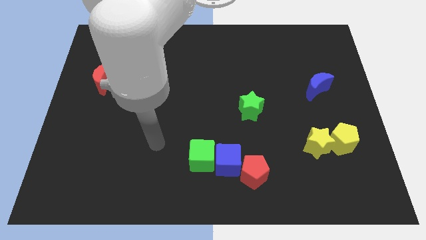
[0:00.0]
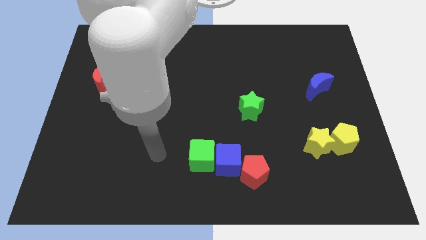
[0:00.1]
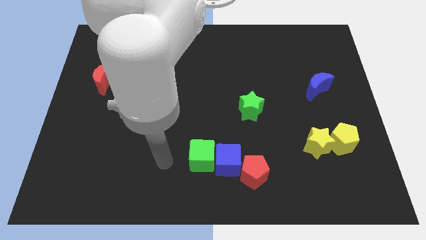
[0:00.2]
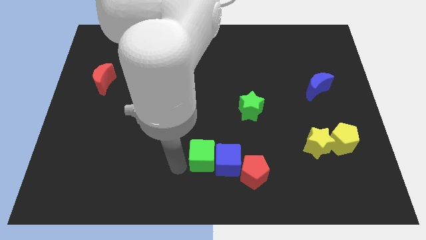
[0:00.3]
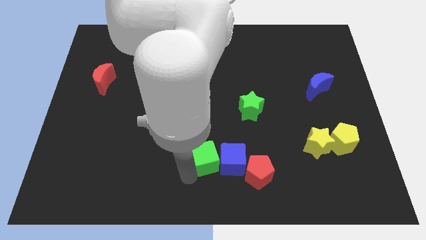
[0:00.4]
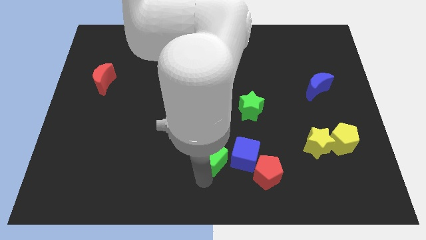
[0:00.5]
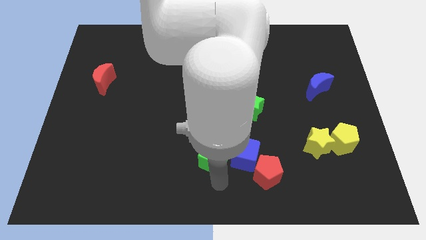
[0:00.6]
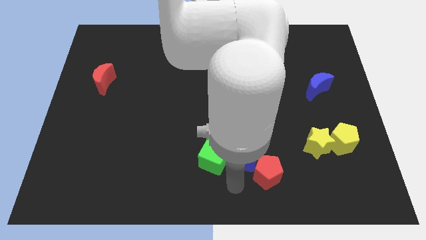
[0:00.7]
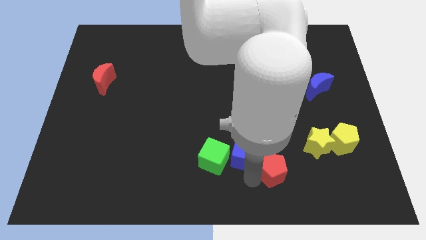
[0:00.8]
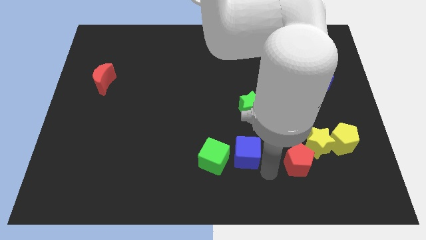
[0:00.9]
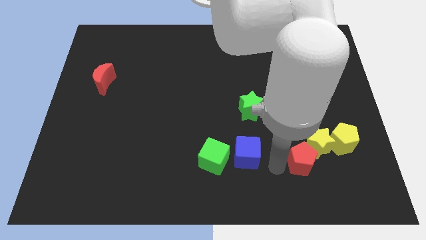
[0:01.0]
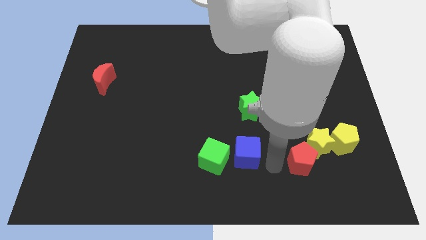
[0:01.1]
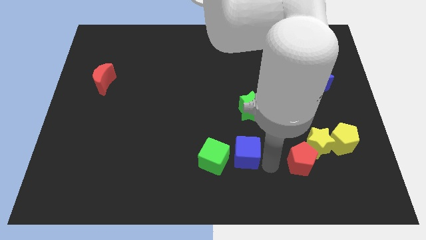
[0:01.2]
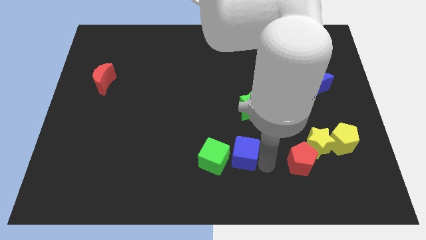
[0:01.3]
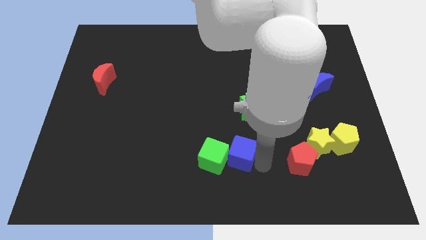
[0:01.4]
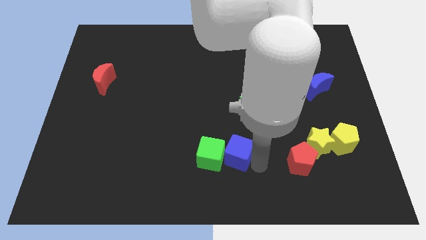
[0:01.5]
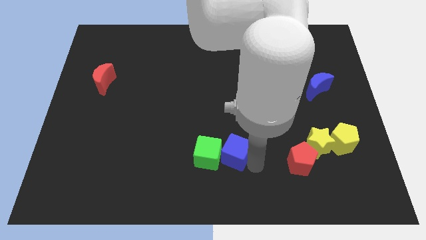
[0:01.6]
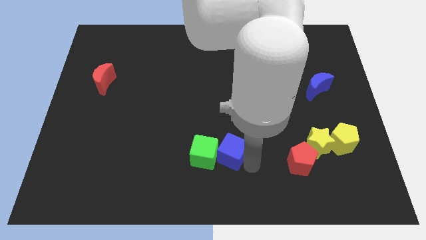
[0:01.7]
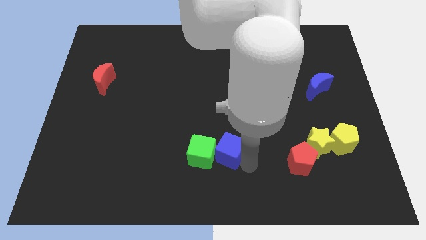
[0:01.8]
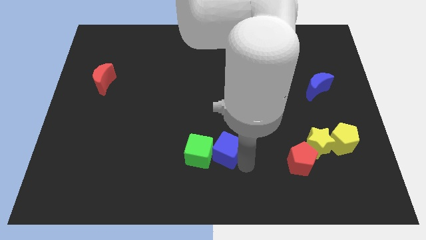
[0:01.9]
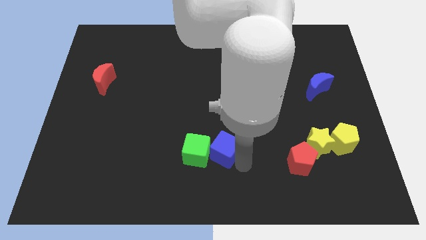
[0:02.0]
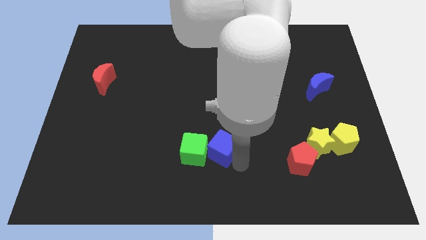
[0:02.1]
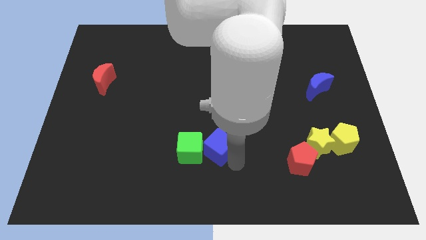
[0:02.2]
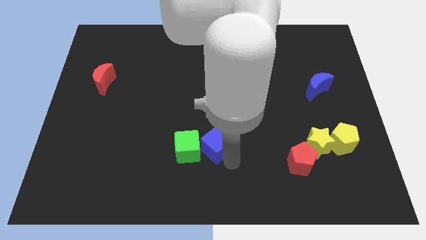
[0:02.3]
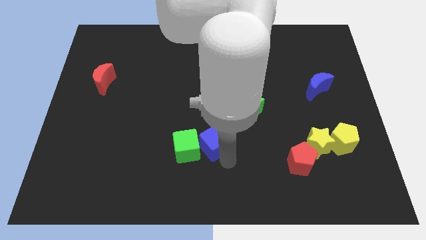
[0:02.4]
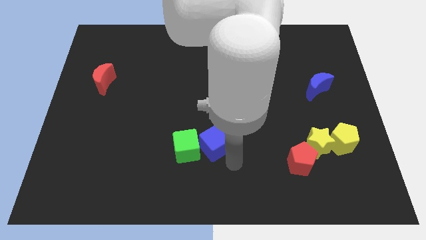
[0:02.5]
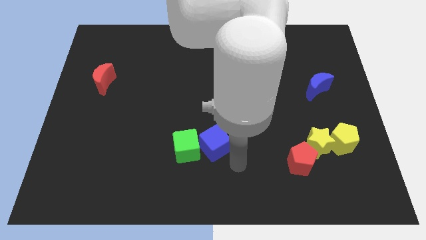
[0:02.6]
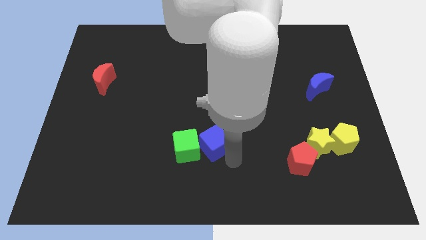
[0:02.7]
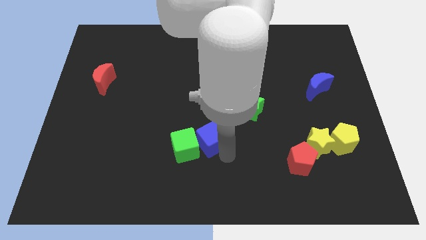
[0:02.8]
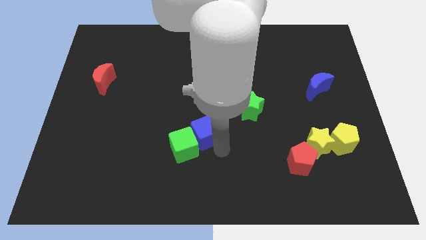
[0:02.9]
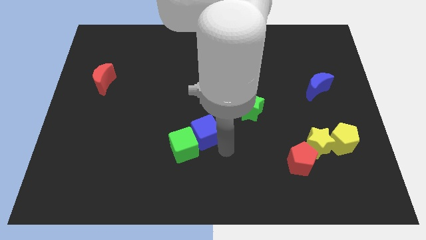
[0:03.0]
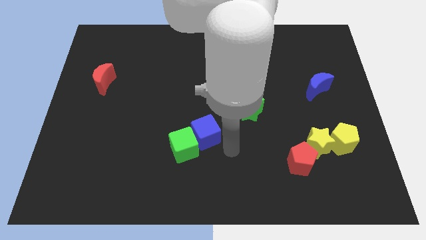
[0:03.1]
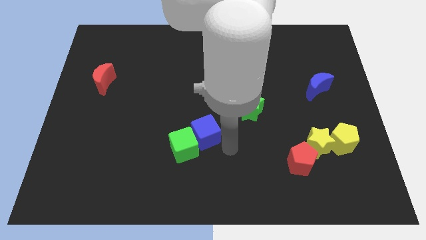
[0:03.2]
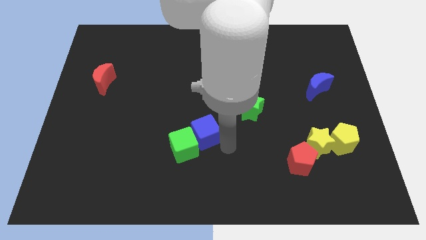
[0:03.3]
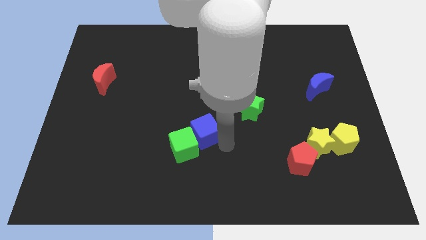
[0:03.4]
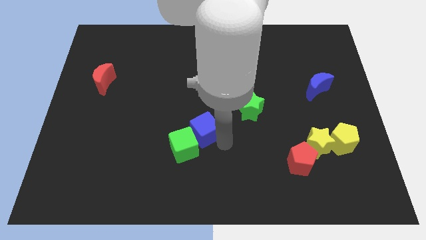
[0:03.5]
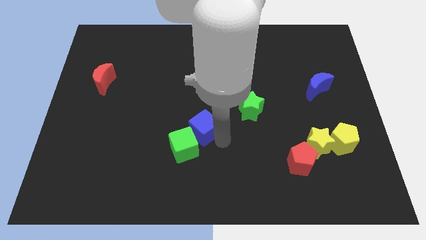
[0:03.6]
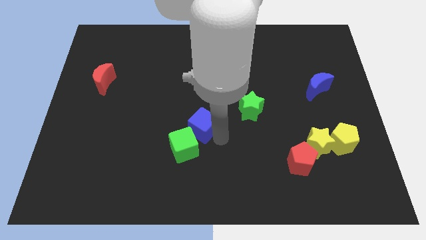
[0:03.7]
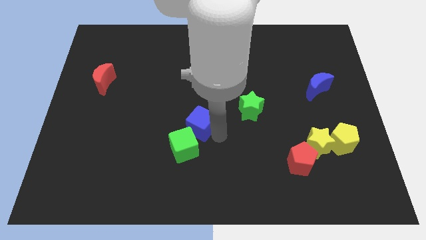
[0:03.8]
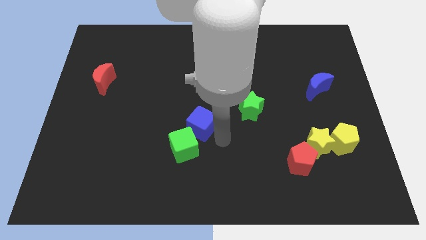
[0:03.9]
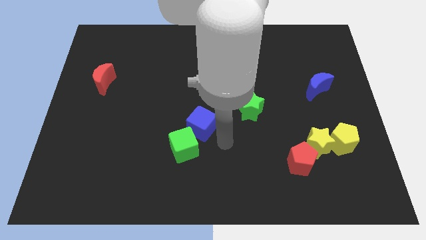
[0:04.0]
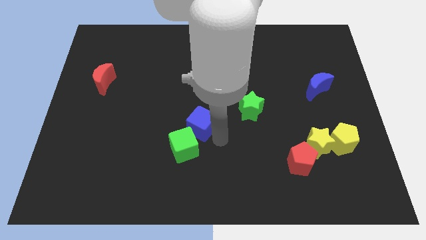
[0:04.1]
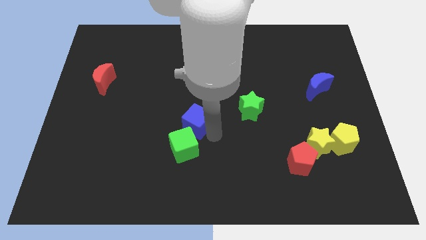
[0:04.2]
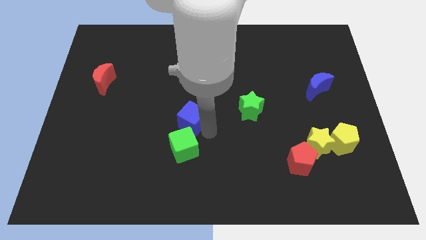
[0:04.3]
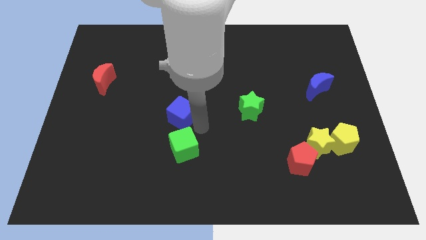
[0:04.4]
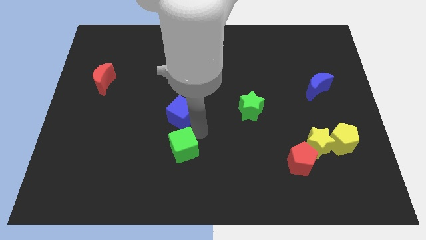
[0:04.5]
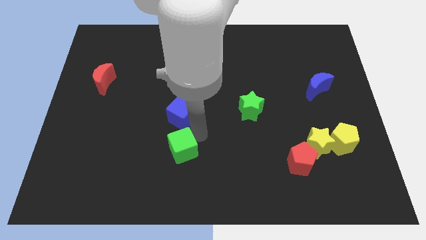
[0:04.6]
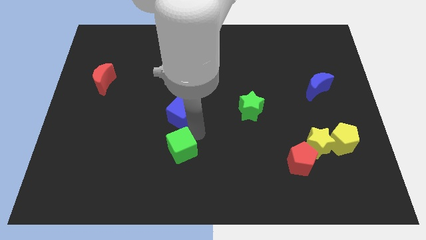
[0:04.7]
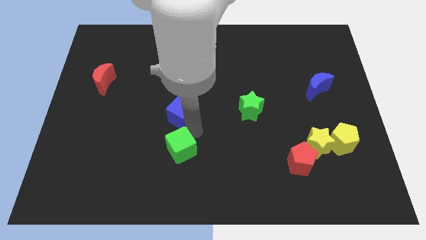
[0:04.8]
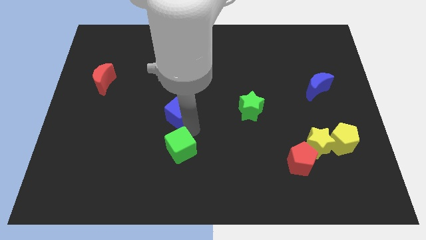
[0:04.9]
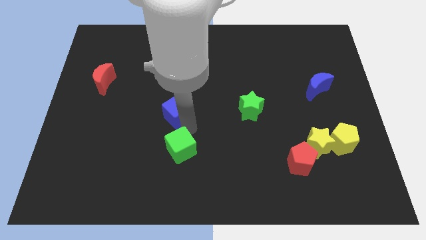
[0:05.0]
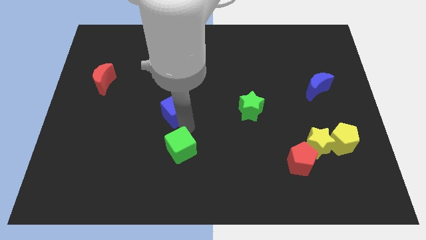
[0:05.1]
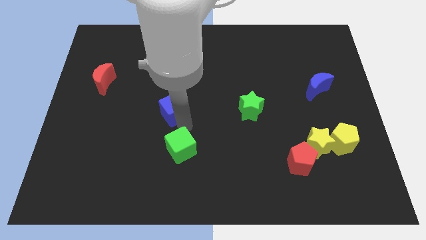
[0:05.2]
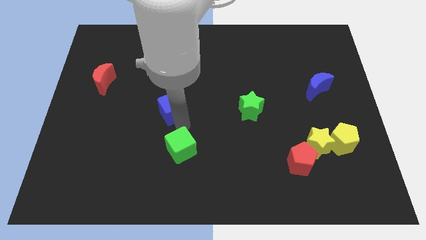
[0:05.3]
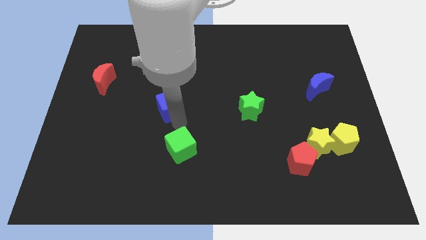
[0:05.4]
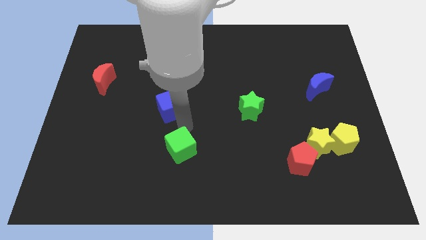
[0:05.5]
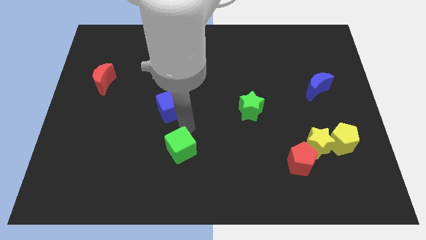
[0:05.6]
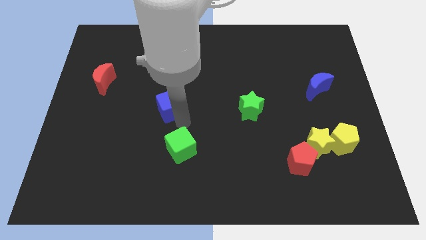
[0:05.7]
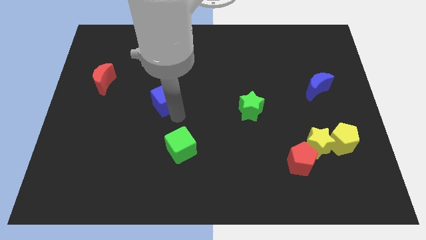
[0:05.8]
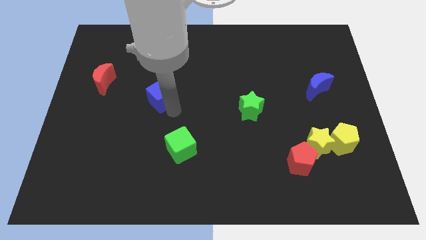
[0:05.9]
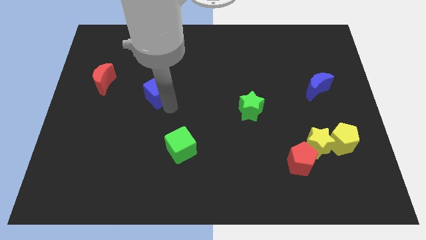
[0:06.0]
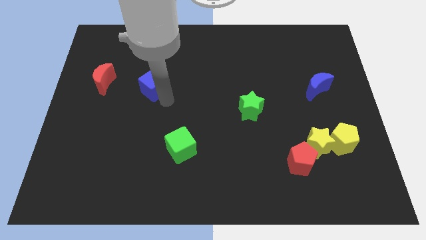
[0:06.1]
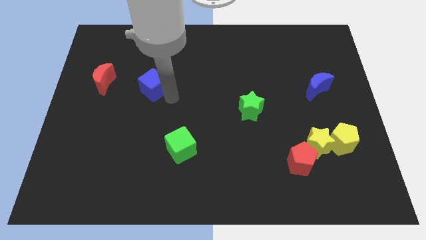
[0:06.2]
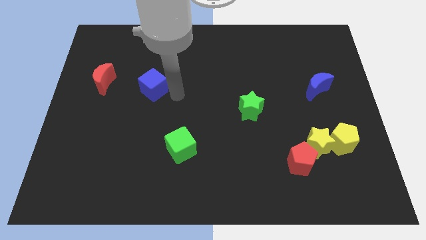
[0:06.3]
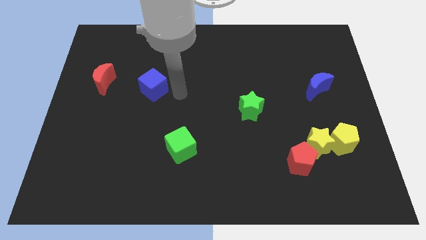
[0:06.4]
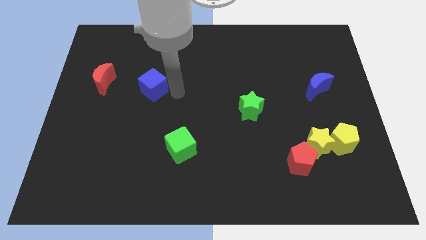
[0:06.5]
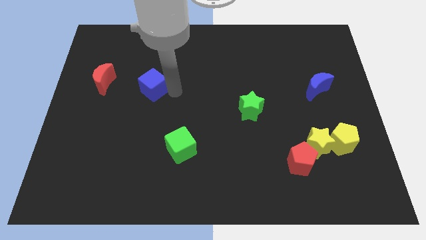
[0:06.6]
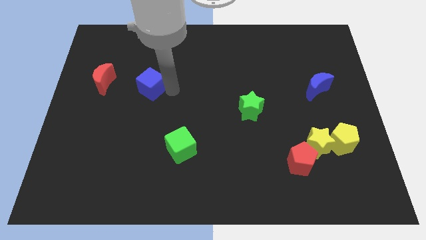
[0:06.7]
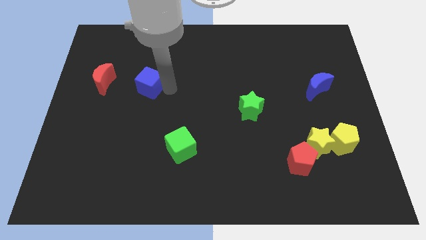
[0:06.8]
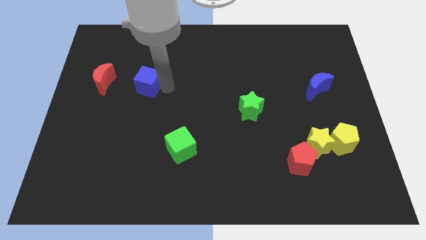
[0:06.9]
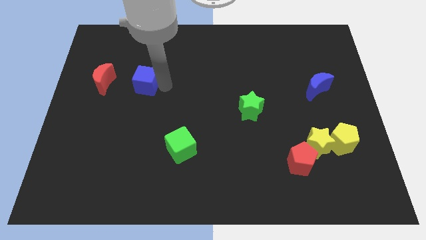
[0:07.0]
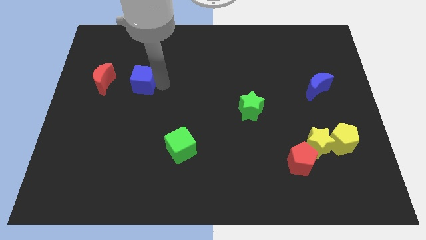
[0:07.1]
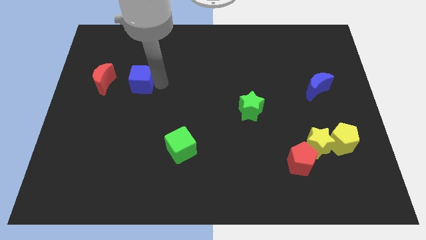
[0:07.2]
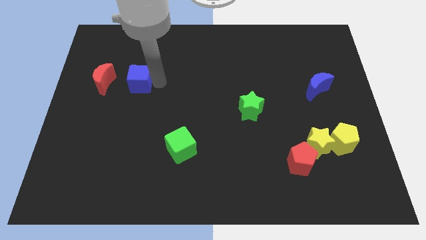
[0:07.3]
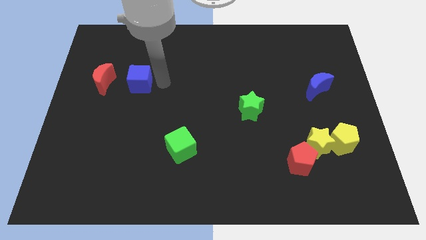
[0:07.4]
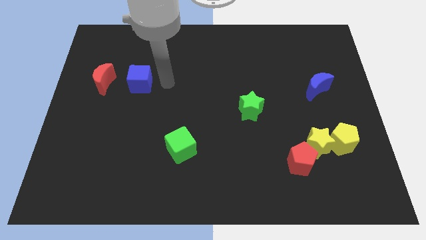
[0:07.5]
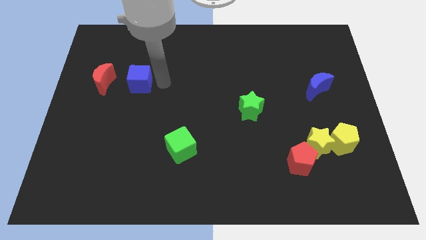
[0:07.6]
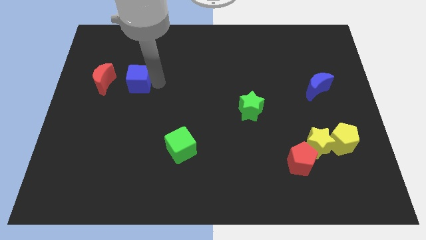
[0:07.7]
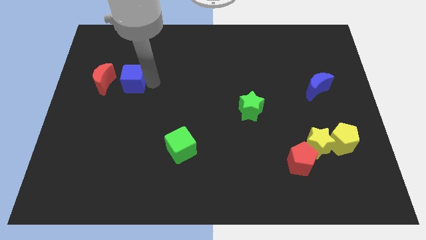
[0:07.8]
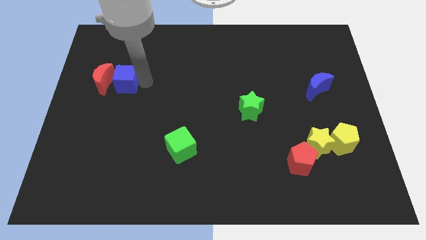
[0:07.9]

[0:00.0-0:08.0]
slide the blue cube close to the red moon

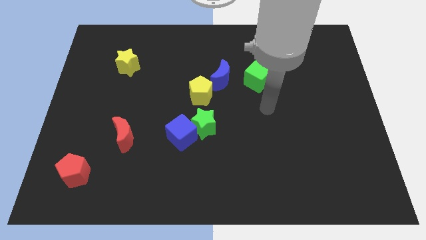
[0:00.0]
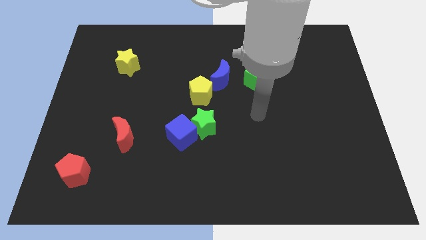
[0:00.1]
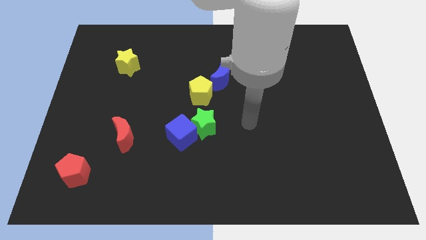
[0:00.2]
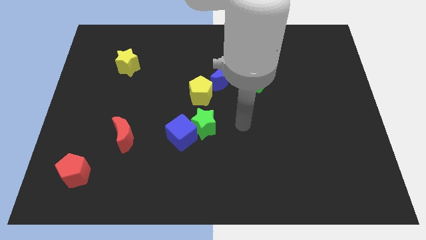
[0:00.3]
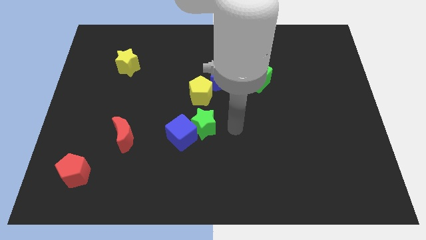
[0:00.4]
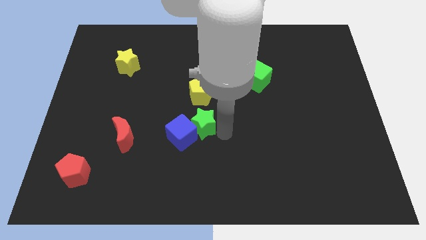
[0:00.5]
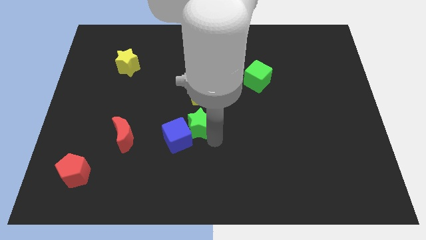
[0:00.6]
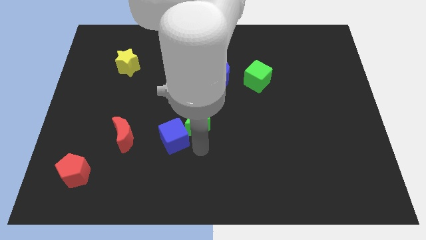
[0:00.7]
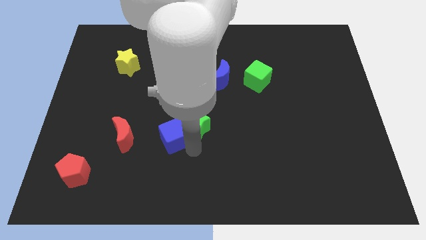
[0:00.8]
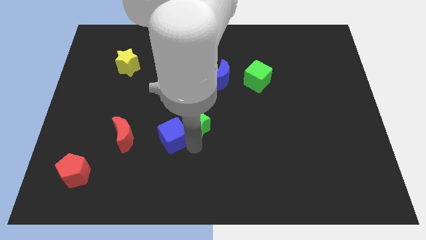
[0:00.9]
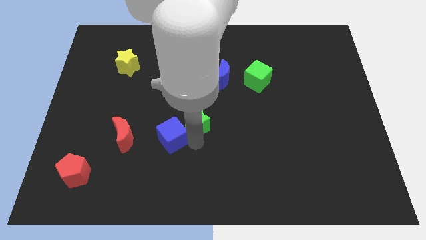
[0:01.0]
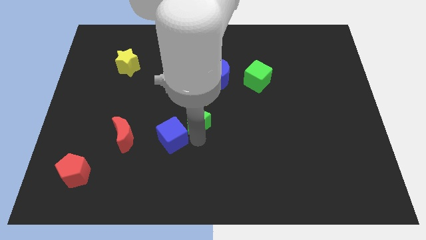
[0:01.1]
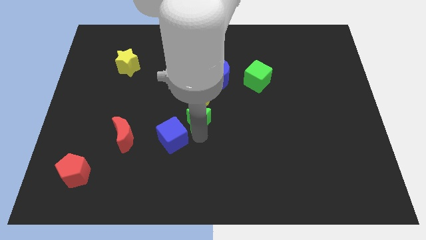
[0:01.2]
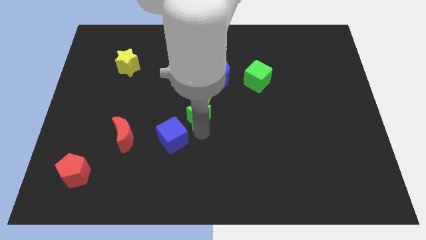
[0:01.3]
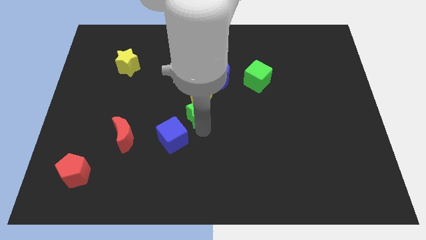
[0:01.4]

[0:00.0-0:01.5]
move the green star towards the yellow pentagon
